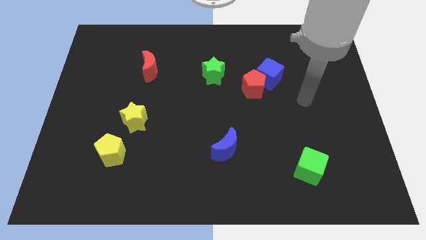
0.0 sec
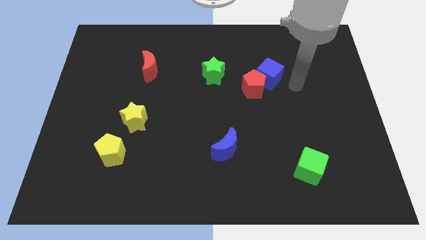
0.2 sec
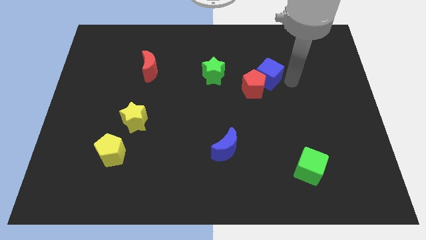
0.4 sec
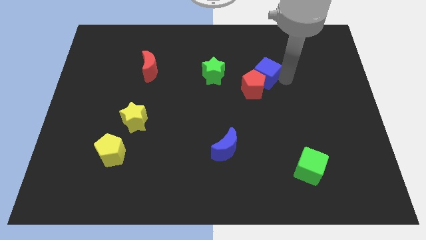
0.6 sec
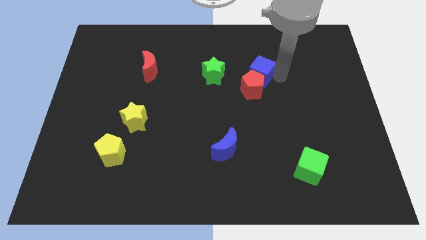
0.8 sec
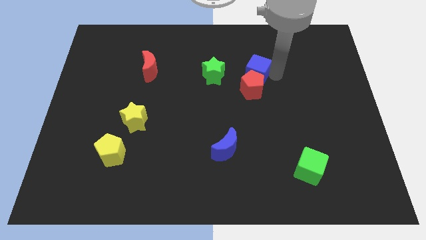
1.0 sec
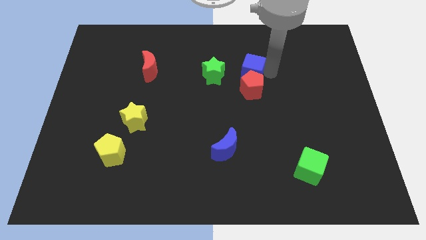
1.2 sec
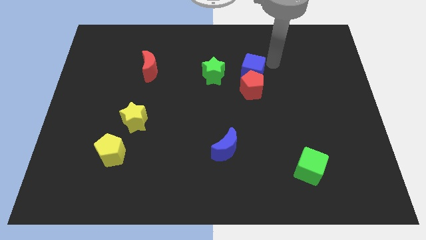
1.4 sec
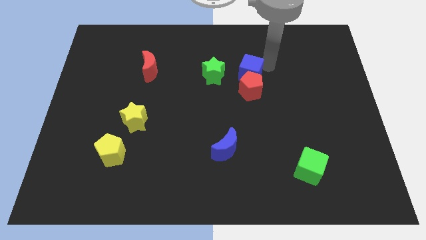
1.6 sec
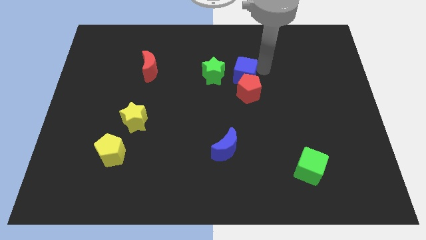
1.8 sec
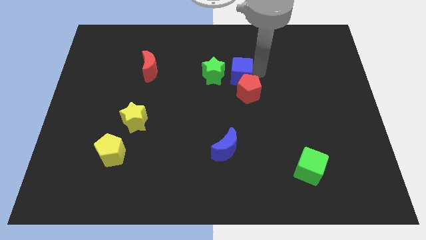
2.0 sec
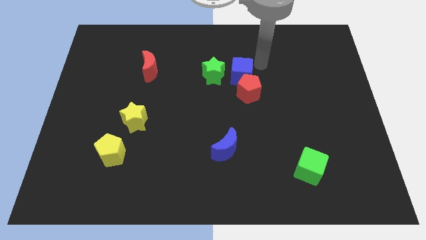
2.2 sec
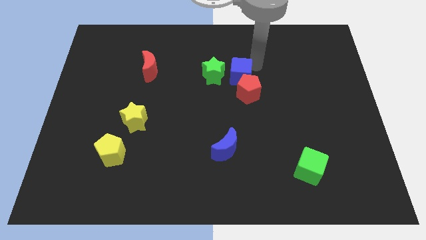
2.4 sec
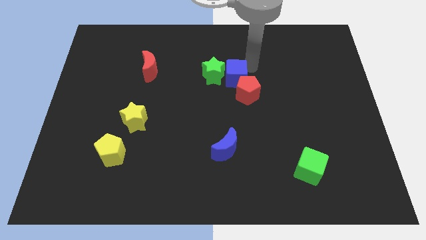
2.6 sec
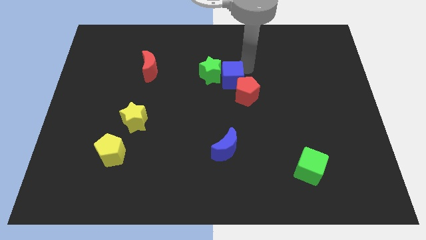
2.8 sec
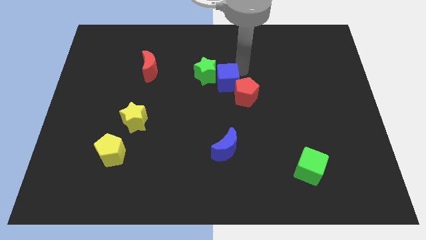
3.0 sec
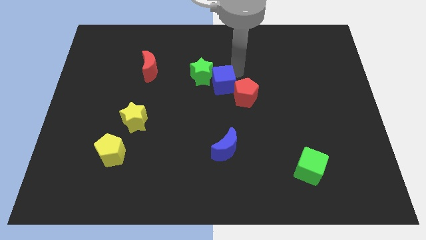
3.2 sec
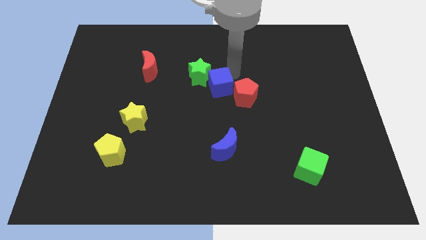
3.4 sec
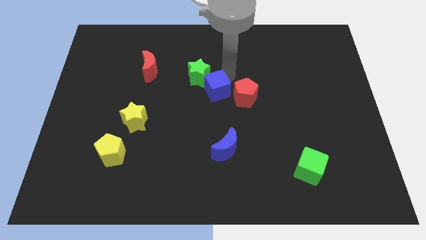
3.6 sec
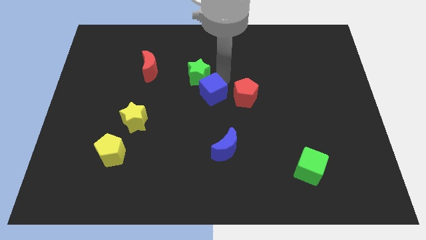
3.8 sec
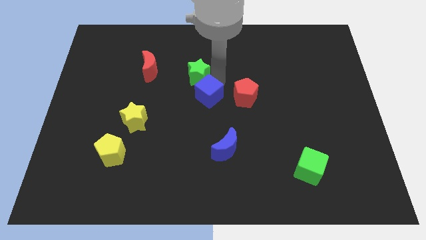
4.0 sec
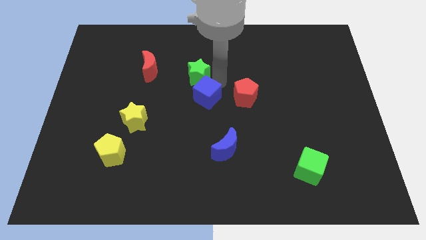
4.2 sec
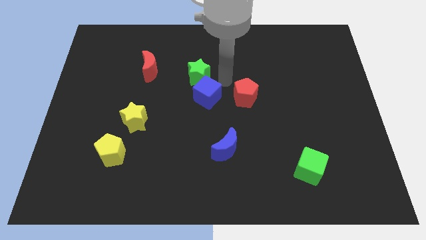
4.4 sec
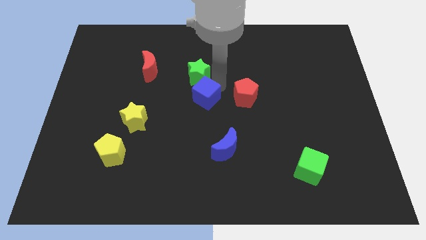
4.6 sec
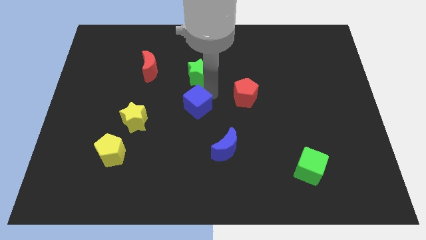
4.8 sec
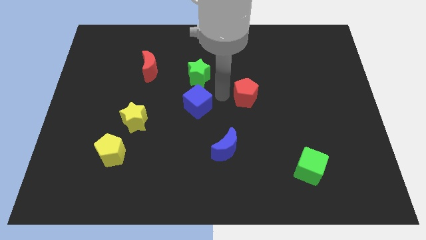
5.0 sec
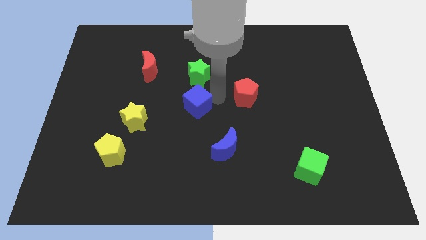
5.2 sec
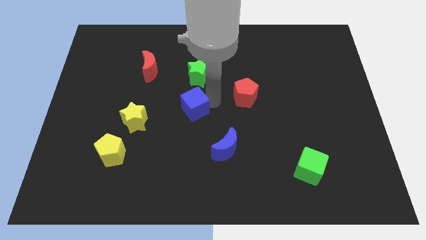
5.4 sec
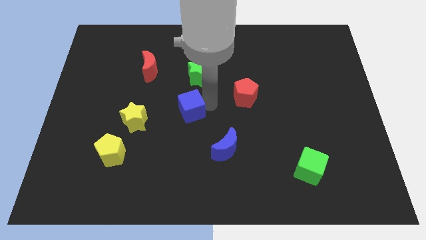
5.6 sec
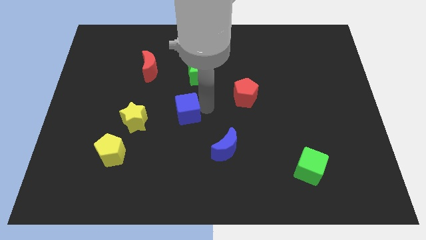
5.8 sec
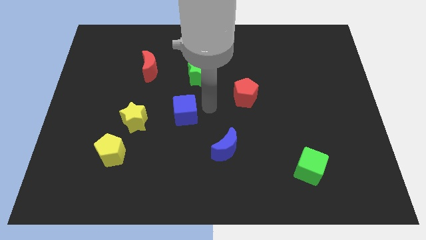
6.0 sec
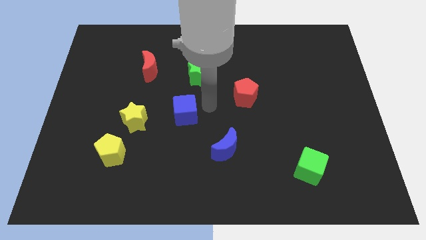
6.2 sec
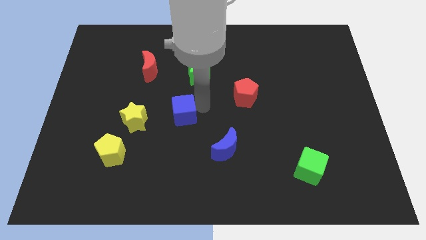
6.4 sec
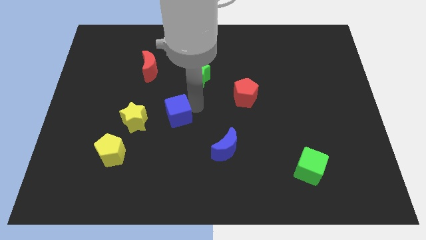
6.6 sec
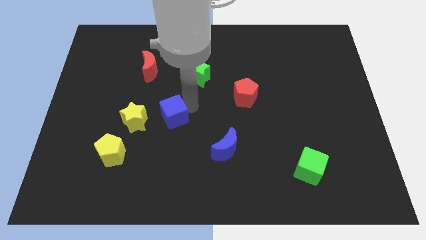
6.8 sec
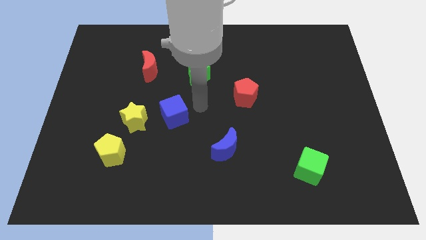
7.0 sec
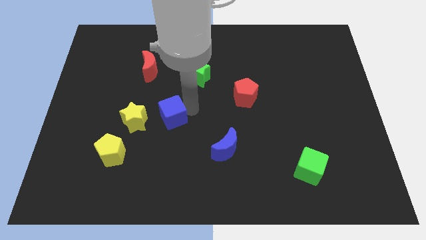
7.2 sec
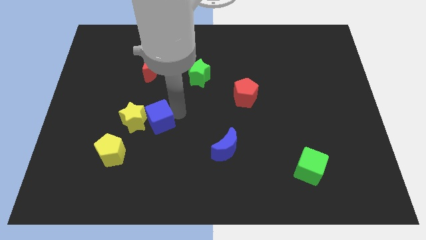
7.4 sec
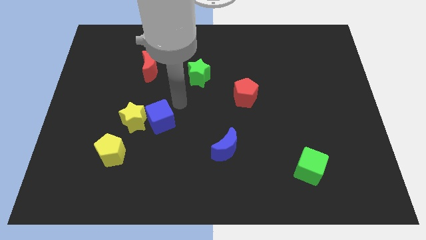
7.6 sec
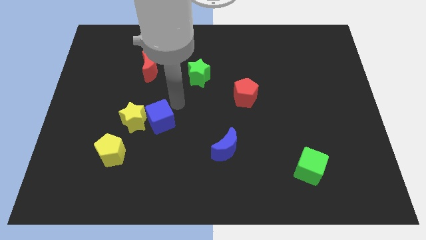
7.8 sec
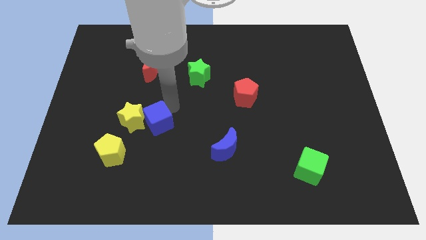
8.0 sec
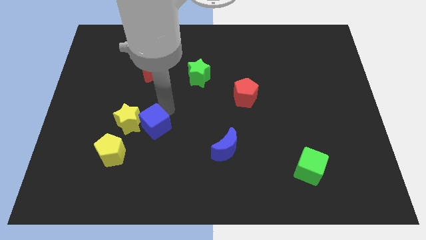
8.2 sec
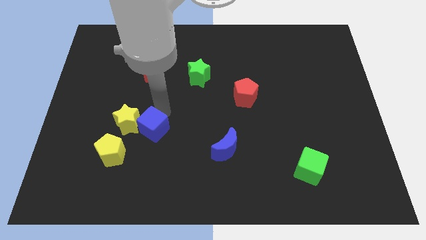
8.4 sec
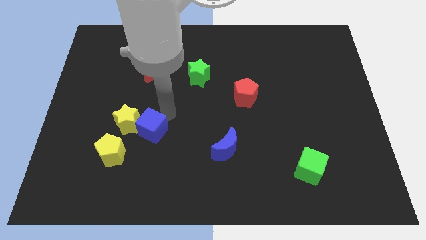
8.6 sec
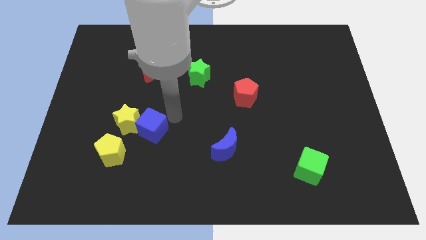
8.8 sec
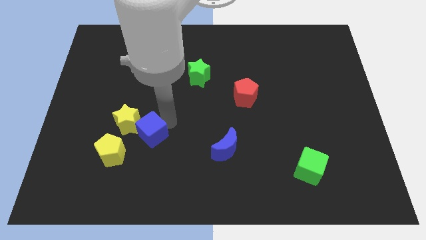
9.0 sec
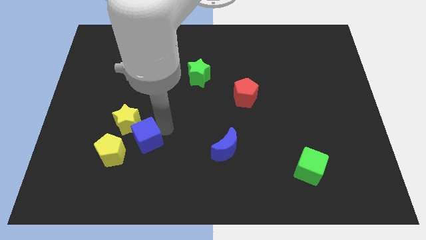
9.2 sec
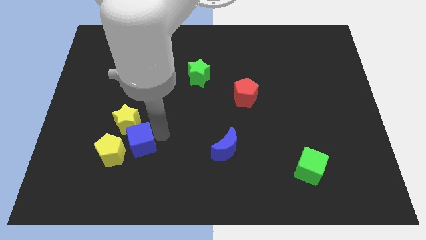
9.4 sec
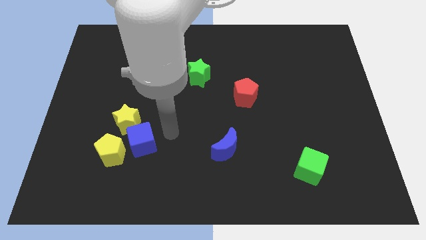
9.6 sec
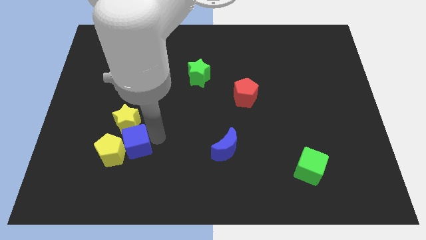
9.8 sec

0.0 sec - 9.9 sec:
move the blue cube towards the yellow pentagon

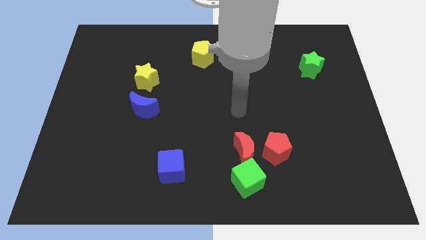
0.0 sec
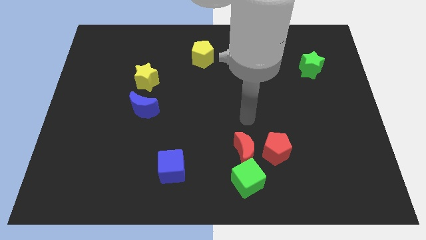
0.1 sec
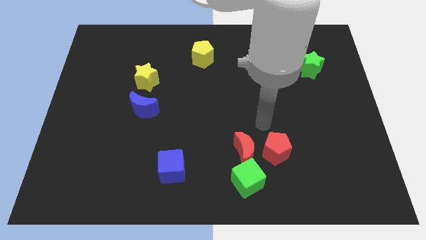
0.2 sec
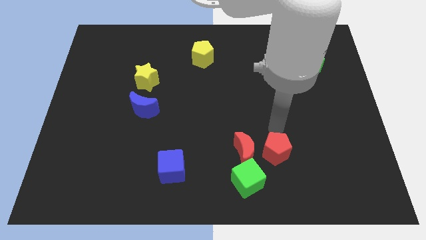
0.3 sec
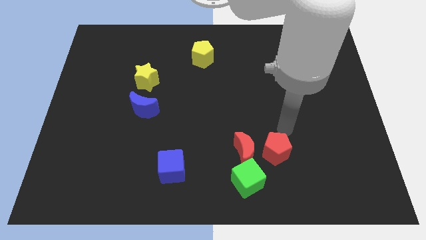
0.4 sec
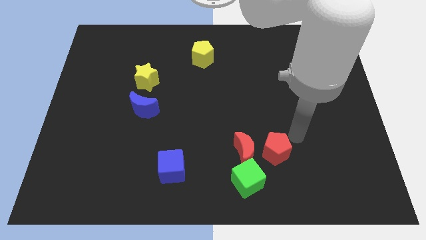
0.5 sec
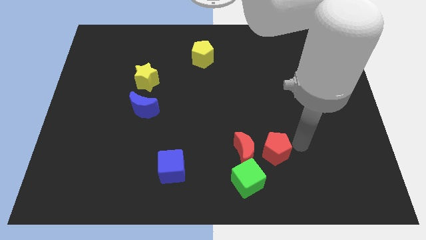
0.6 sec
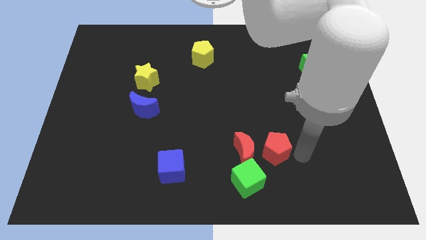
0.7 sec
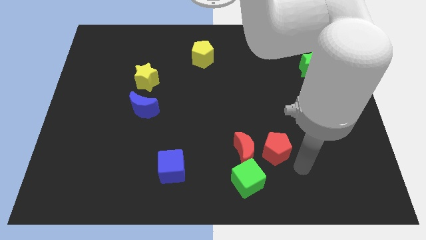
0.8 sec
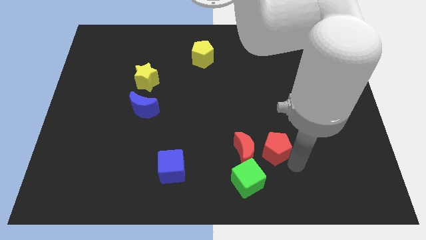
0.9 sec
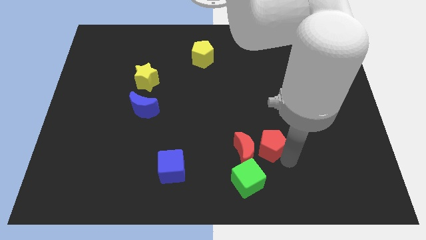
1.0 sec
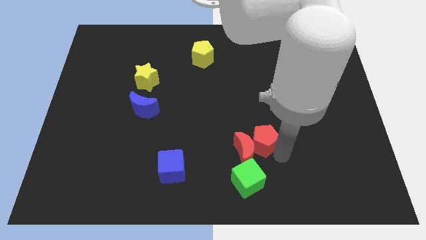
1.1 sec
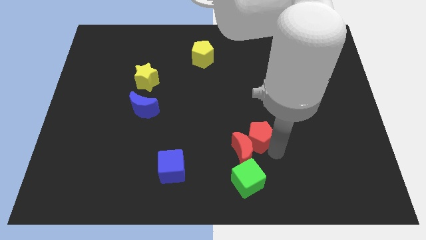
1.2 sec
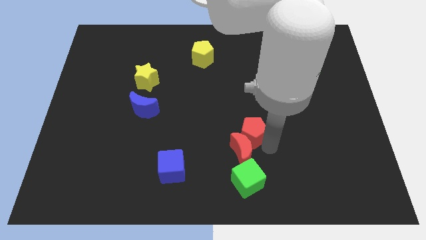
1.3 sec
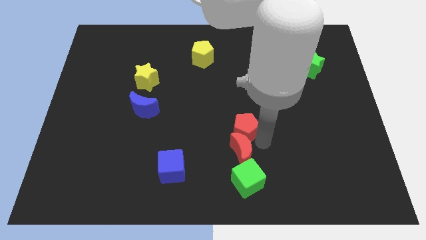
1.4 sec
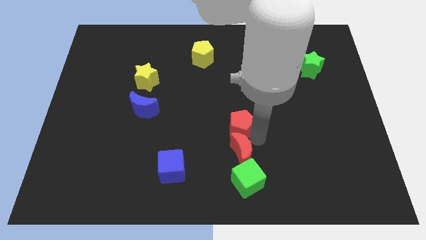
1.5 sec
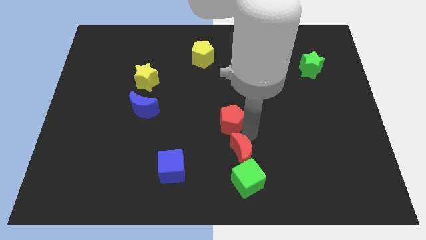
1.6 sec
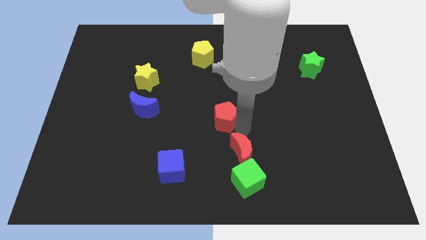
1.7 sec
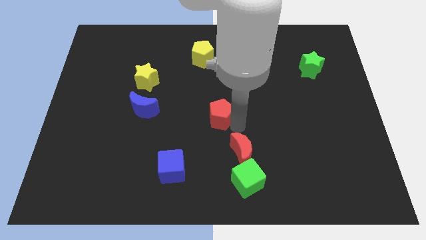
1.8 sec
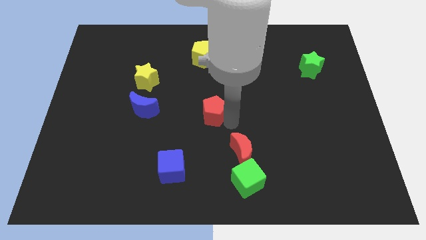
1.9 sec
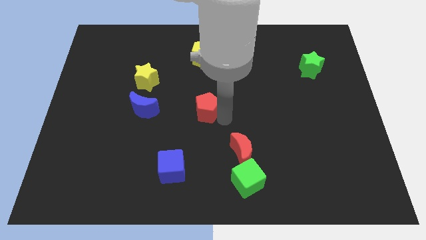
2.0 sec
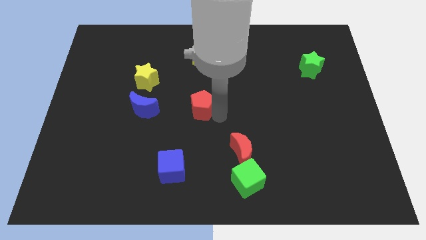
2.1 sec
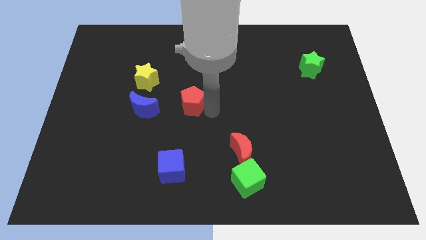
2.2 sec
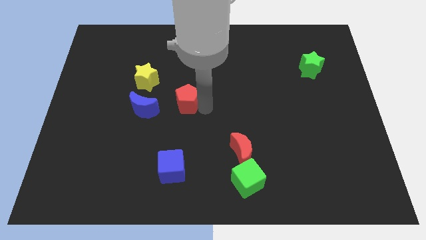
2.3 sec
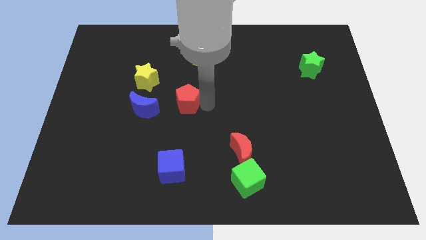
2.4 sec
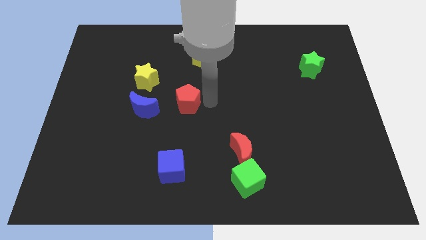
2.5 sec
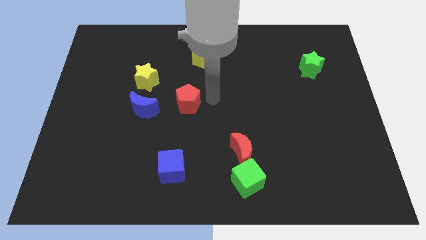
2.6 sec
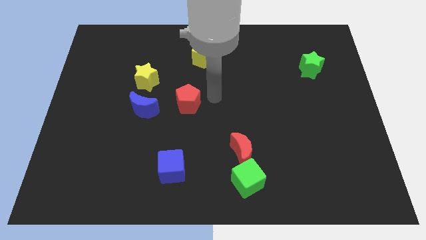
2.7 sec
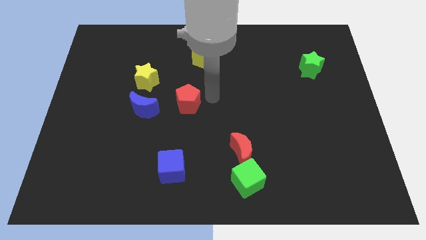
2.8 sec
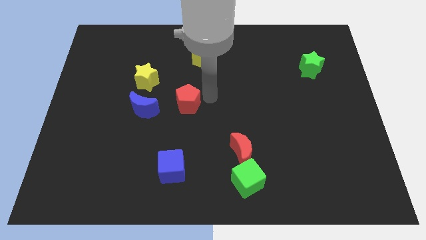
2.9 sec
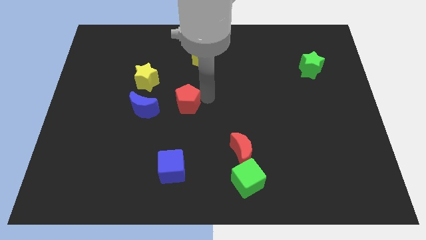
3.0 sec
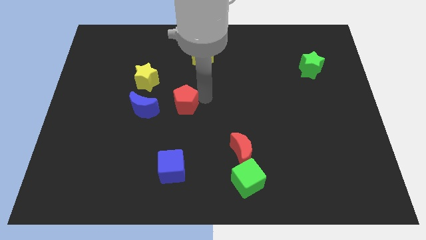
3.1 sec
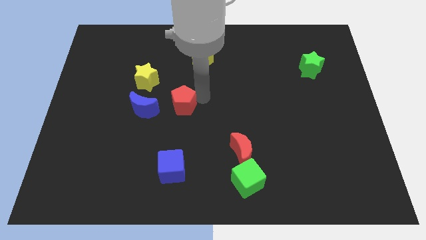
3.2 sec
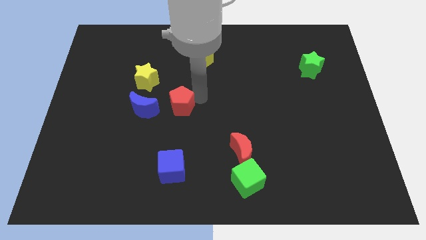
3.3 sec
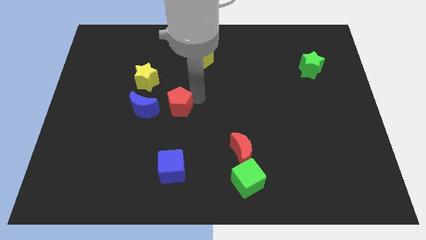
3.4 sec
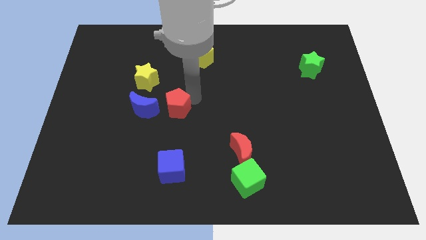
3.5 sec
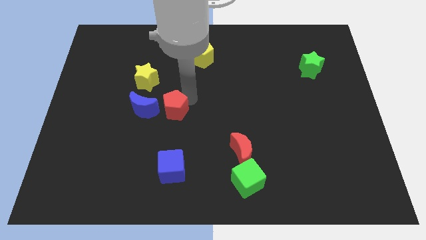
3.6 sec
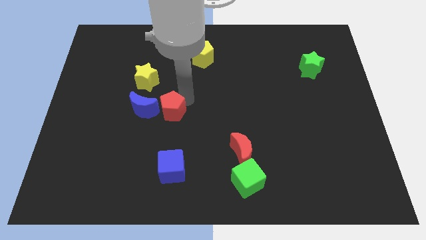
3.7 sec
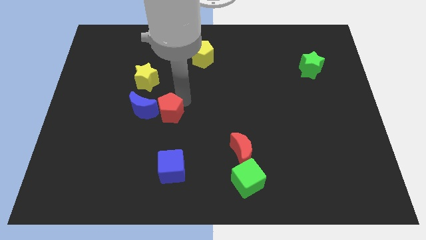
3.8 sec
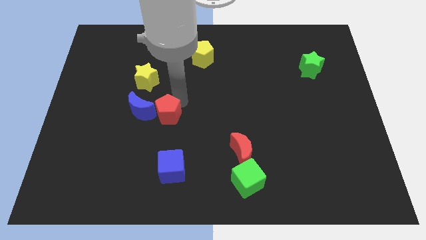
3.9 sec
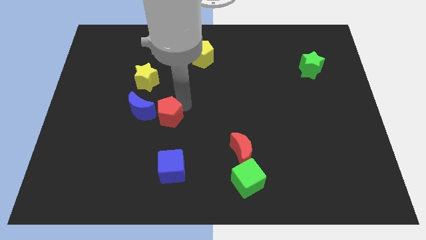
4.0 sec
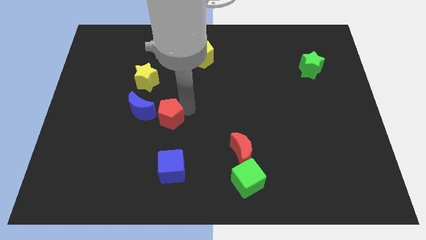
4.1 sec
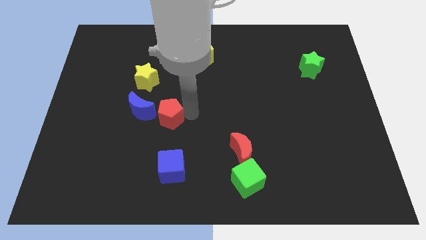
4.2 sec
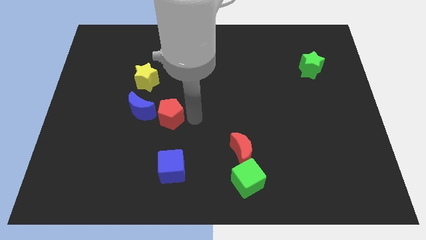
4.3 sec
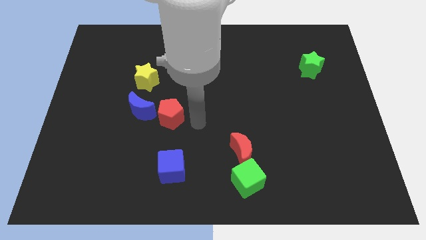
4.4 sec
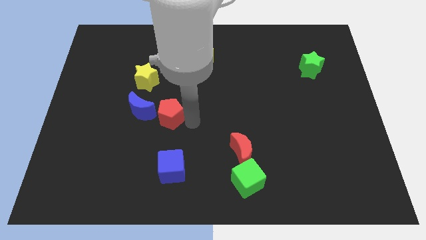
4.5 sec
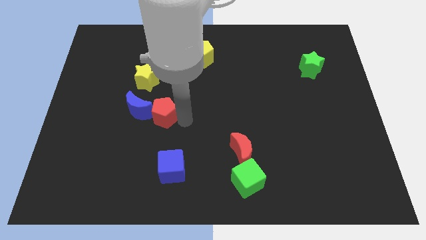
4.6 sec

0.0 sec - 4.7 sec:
slide the red pentagon next to the blue moon
